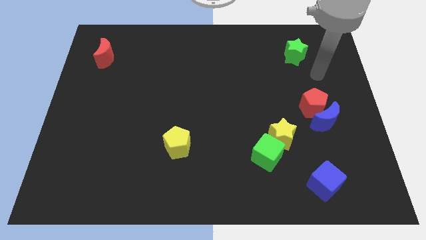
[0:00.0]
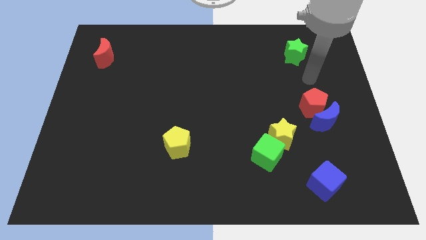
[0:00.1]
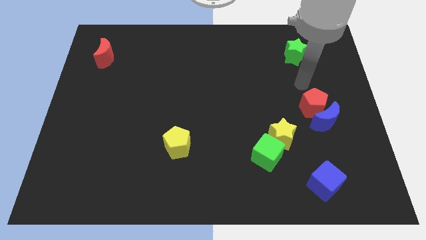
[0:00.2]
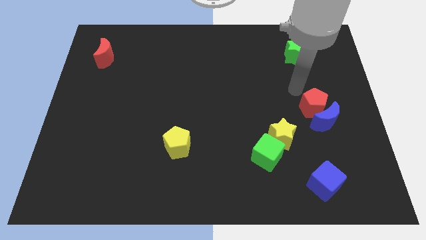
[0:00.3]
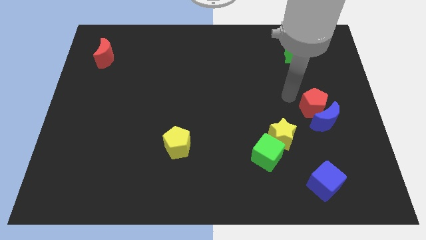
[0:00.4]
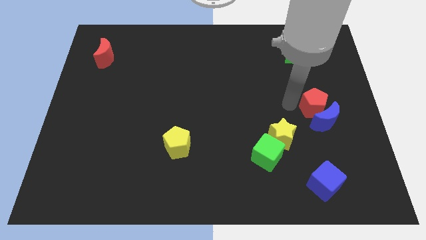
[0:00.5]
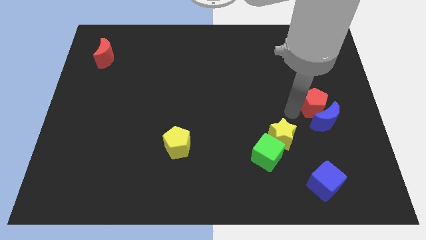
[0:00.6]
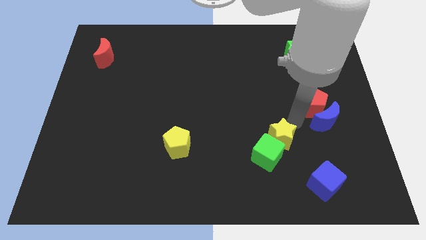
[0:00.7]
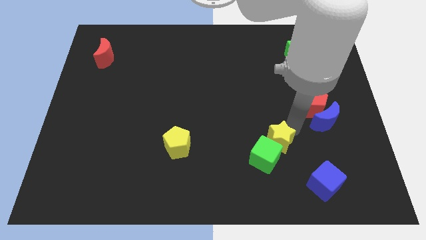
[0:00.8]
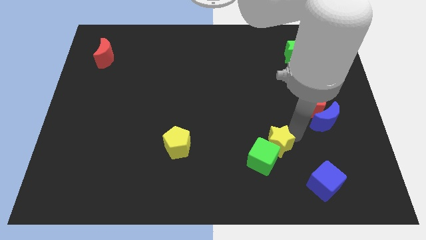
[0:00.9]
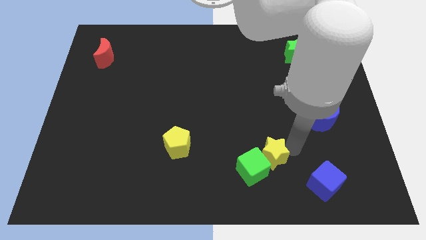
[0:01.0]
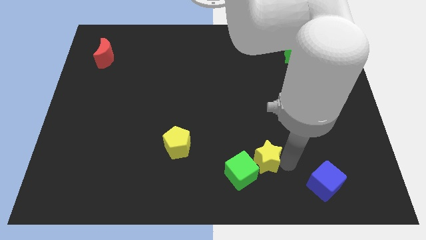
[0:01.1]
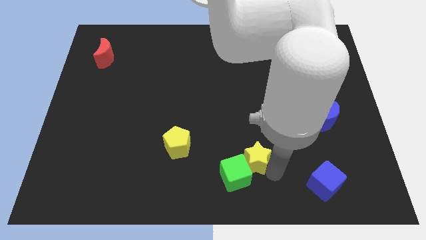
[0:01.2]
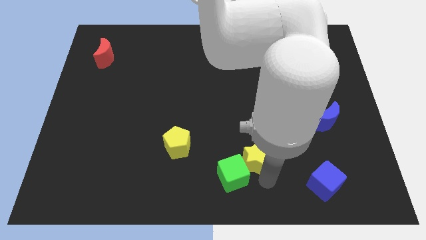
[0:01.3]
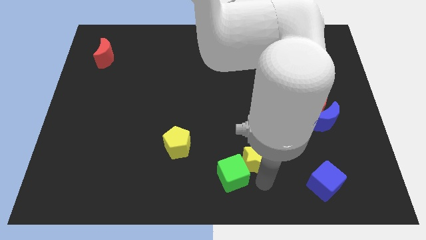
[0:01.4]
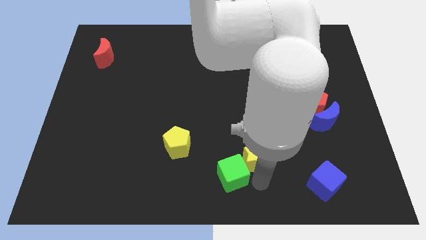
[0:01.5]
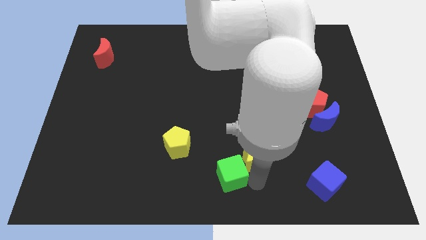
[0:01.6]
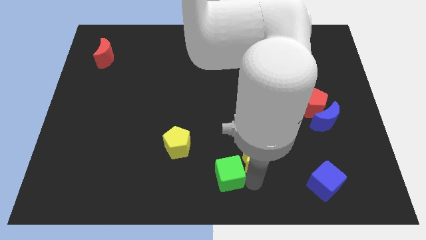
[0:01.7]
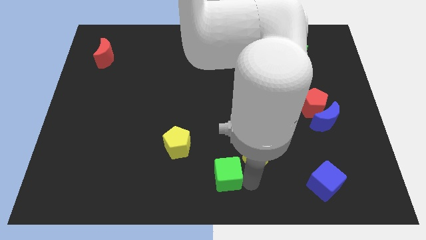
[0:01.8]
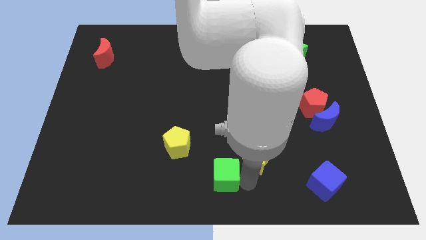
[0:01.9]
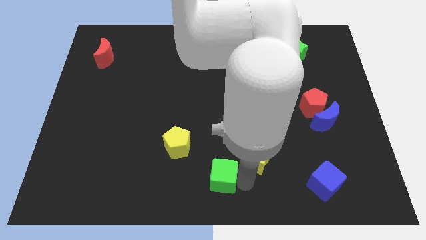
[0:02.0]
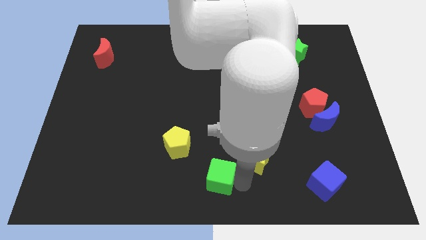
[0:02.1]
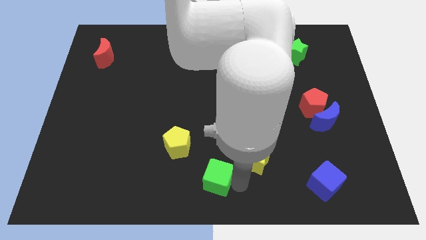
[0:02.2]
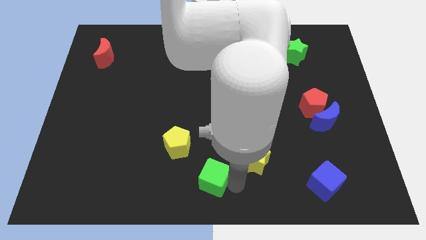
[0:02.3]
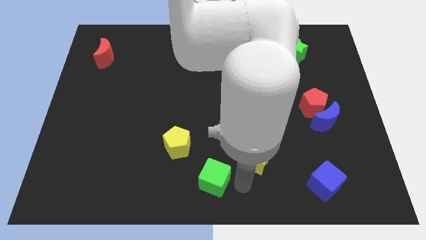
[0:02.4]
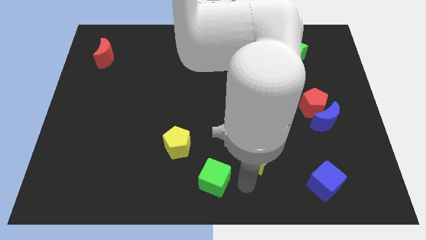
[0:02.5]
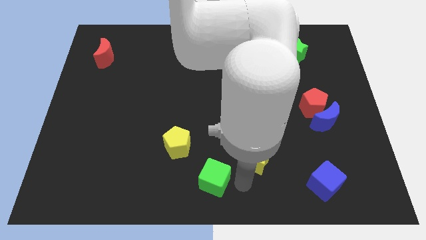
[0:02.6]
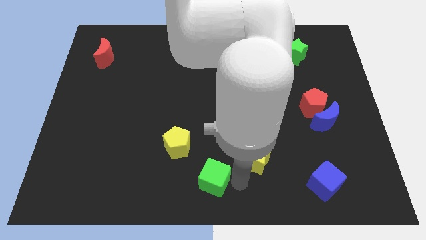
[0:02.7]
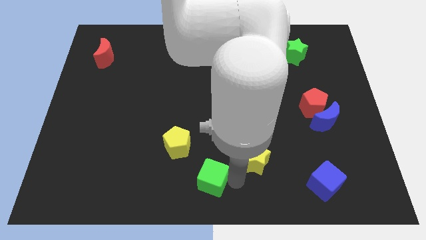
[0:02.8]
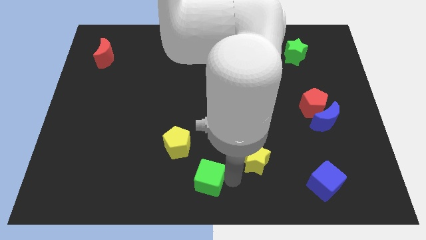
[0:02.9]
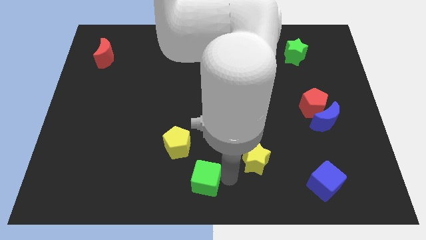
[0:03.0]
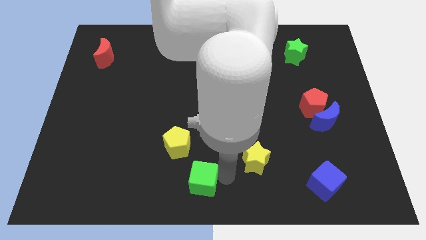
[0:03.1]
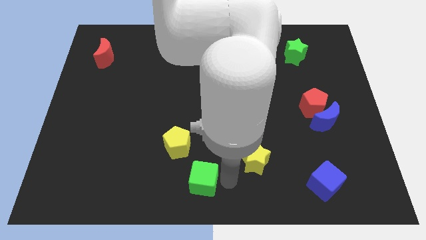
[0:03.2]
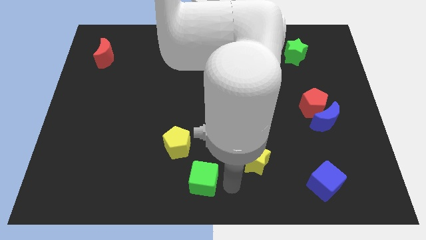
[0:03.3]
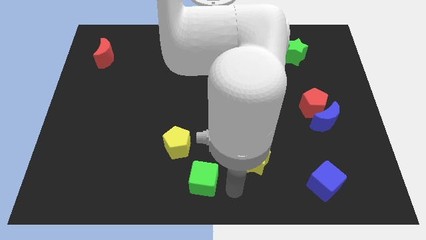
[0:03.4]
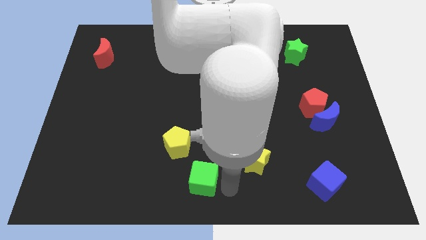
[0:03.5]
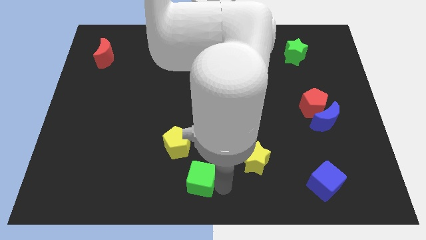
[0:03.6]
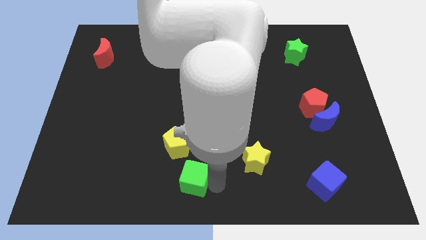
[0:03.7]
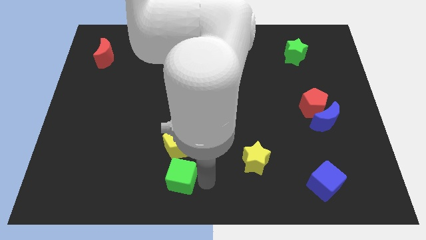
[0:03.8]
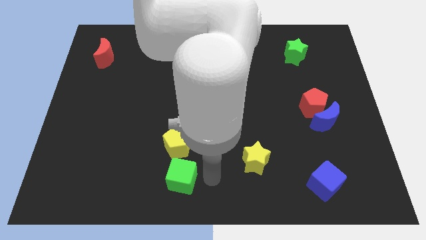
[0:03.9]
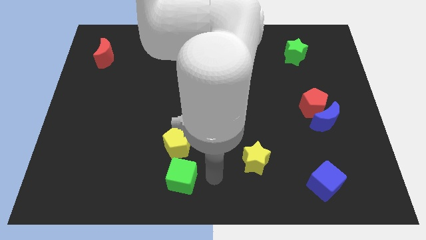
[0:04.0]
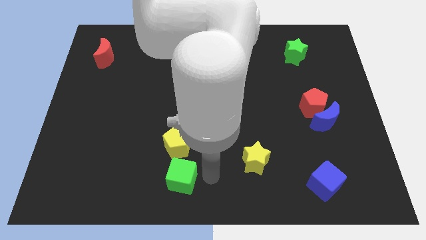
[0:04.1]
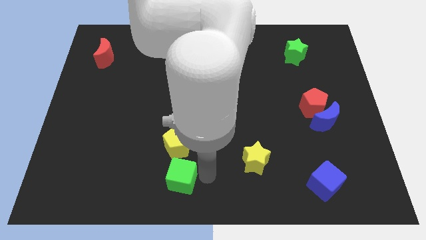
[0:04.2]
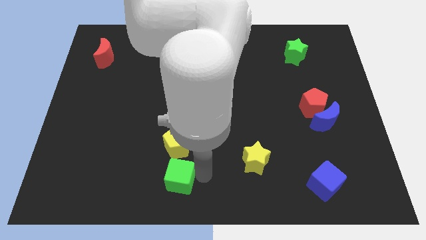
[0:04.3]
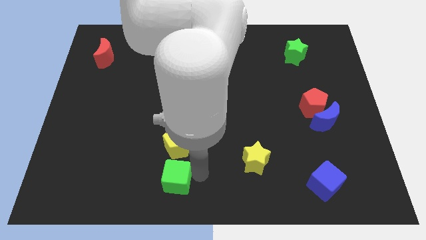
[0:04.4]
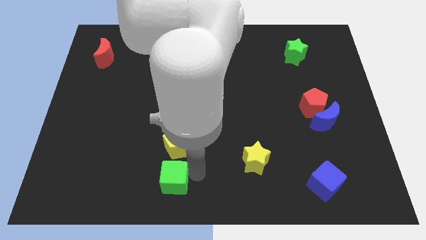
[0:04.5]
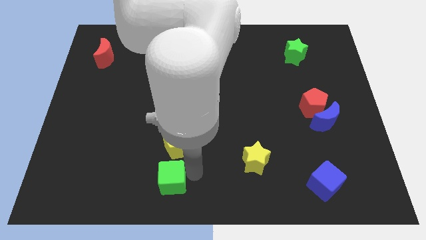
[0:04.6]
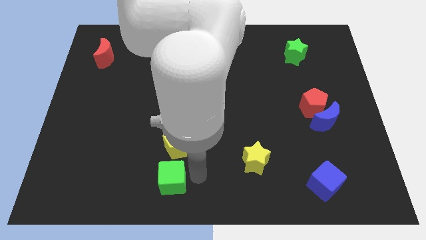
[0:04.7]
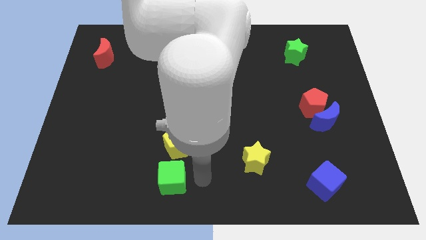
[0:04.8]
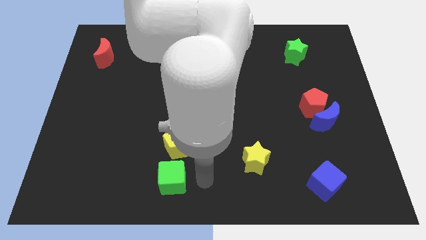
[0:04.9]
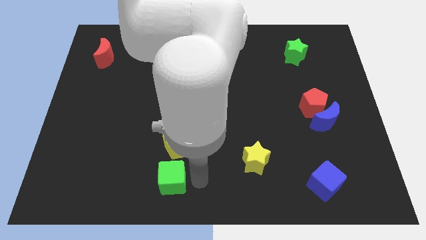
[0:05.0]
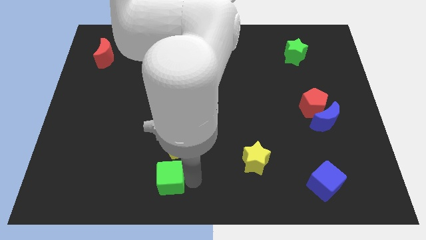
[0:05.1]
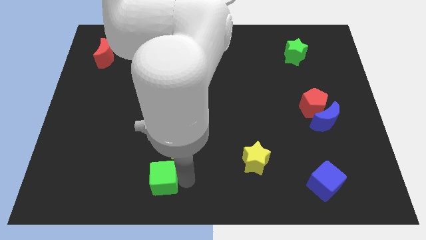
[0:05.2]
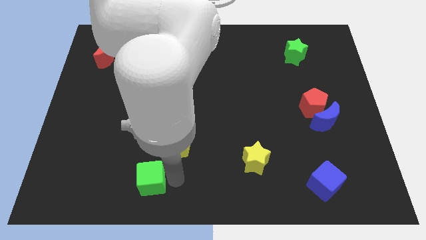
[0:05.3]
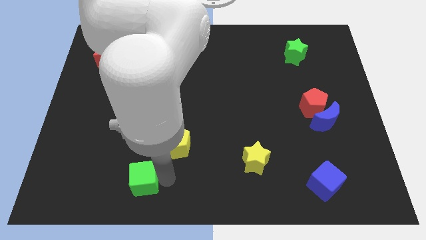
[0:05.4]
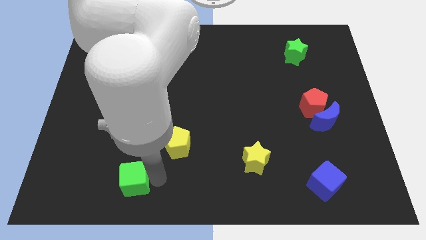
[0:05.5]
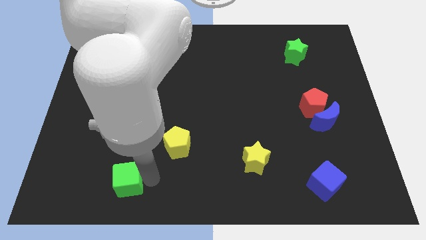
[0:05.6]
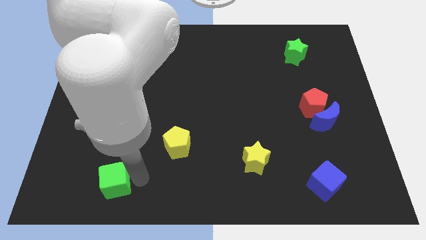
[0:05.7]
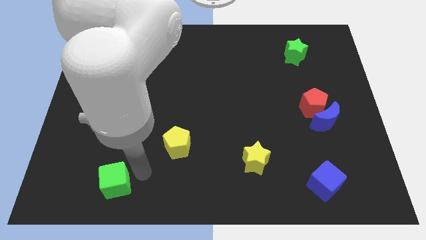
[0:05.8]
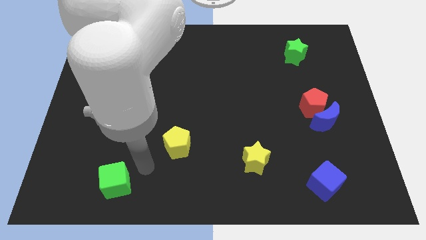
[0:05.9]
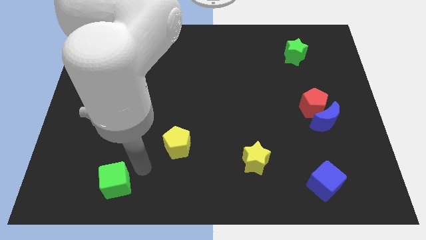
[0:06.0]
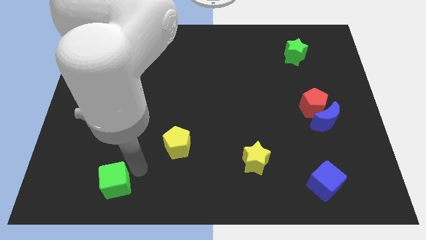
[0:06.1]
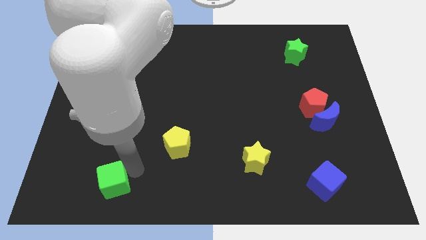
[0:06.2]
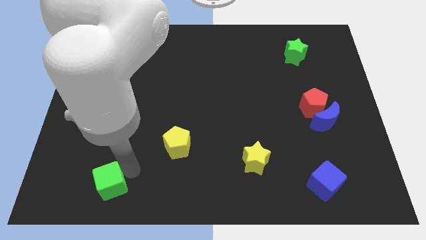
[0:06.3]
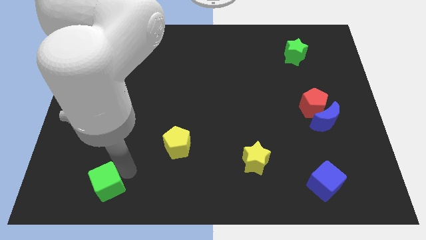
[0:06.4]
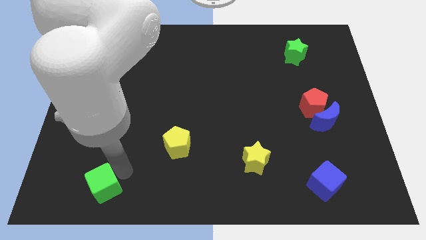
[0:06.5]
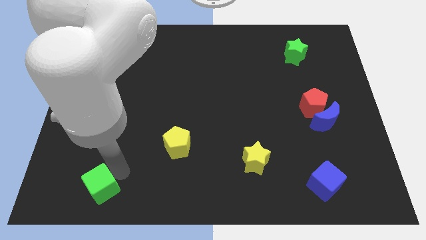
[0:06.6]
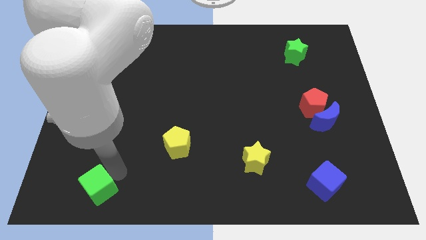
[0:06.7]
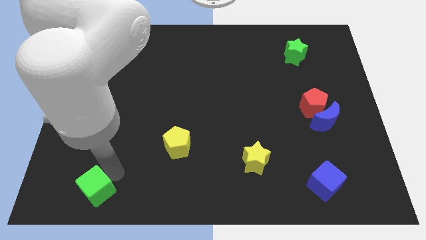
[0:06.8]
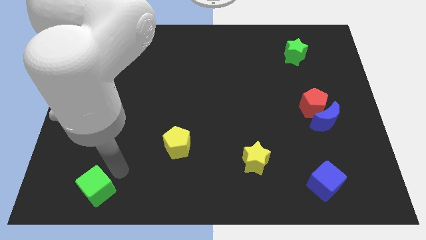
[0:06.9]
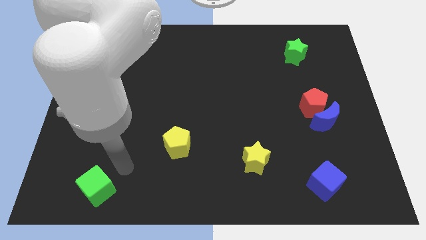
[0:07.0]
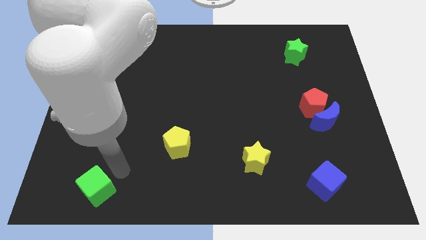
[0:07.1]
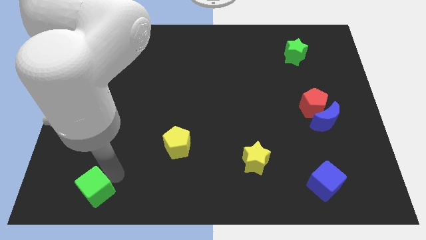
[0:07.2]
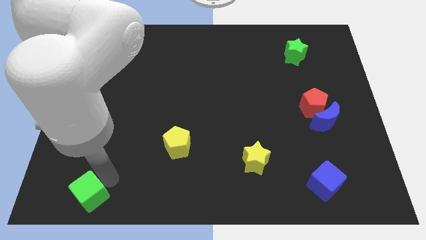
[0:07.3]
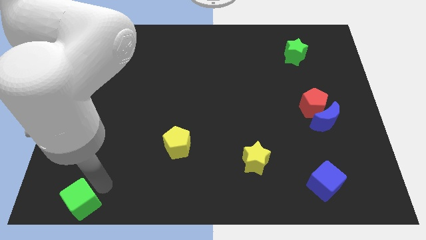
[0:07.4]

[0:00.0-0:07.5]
move the green cube to the lower left corner
